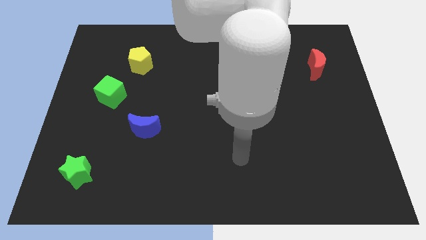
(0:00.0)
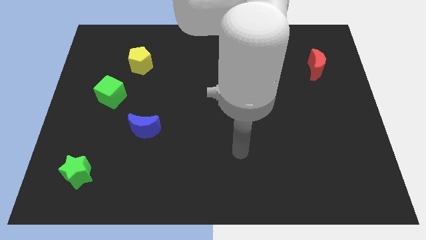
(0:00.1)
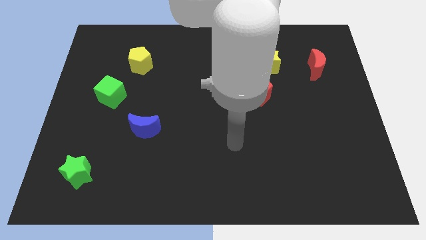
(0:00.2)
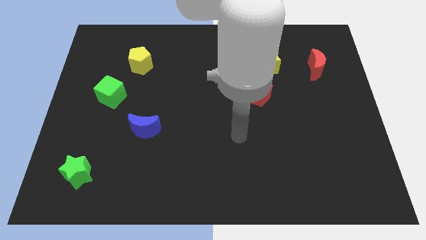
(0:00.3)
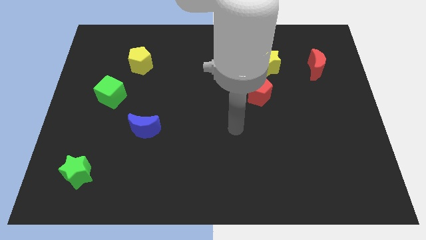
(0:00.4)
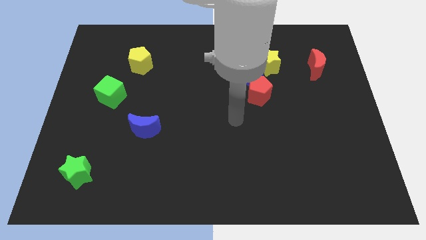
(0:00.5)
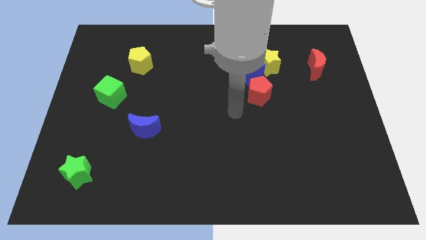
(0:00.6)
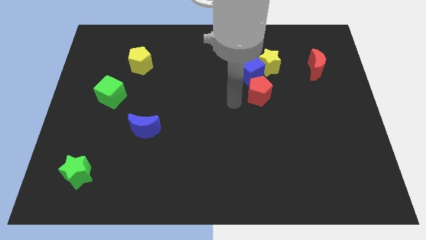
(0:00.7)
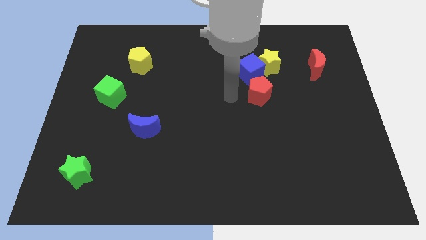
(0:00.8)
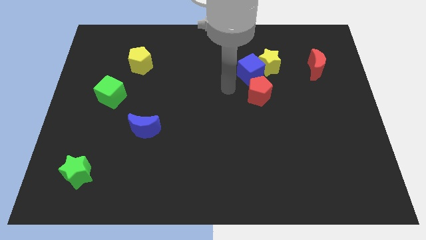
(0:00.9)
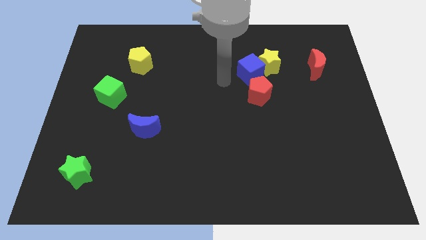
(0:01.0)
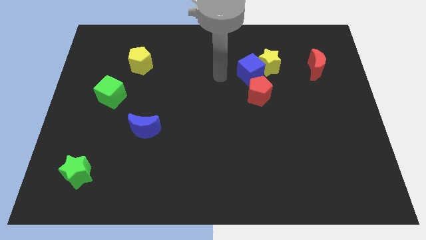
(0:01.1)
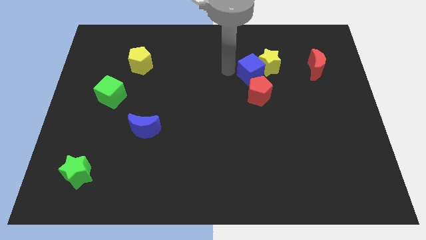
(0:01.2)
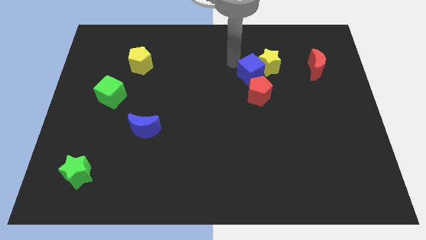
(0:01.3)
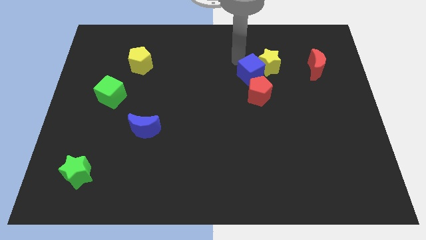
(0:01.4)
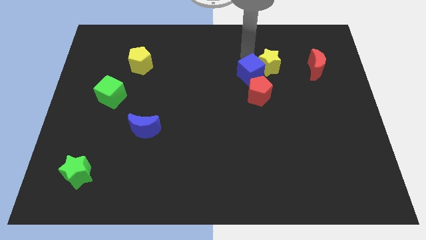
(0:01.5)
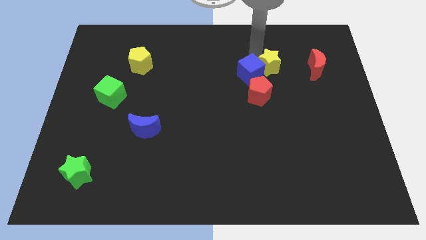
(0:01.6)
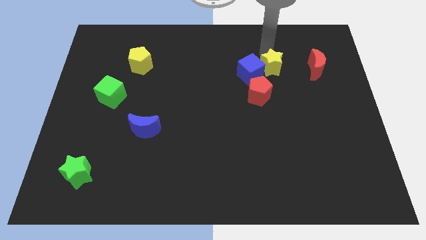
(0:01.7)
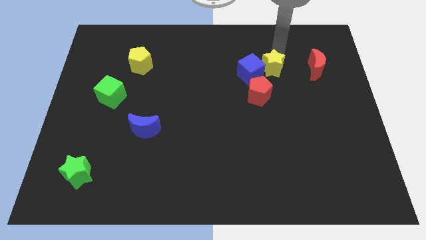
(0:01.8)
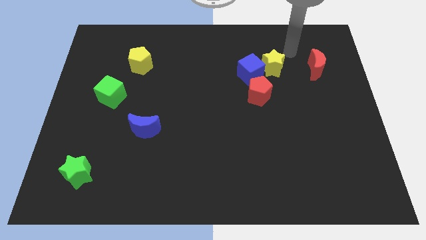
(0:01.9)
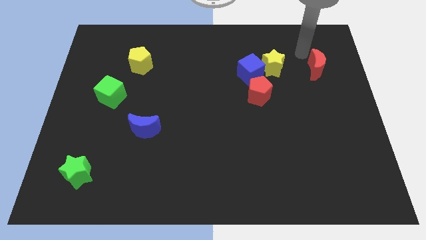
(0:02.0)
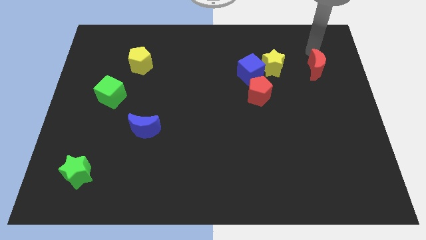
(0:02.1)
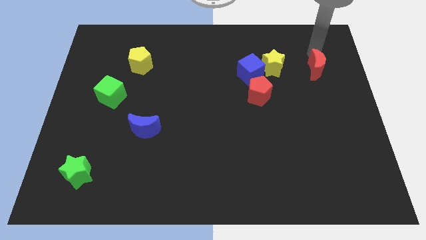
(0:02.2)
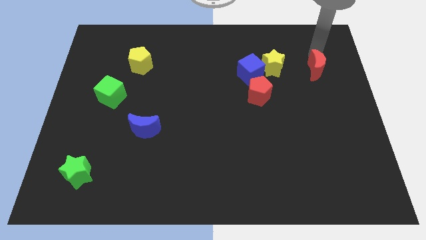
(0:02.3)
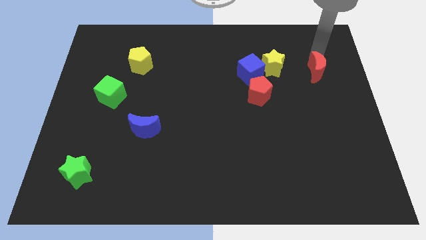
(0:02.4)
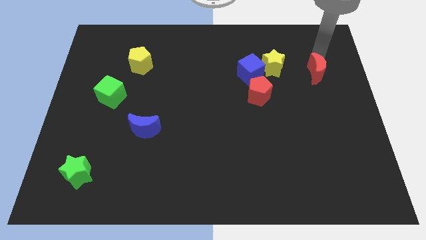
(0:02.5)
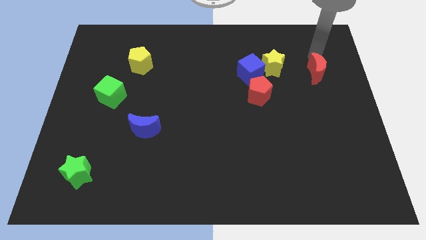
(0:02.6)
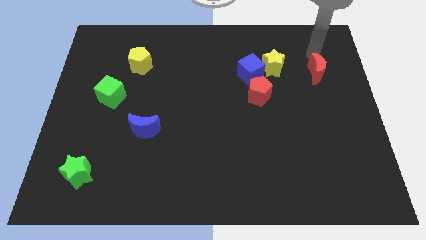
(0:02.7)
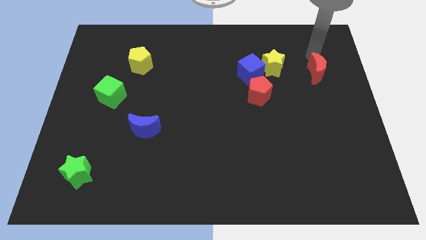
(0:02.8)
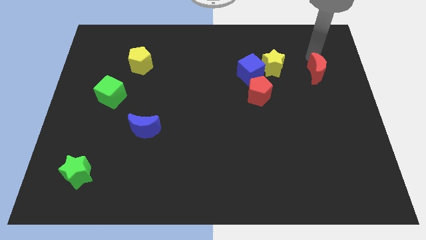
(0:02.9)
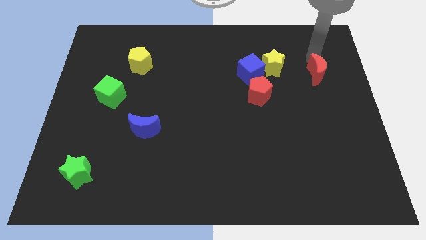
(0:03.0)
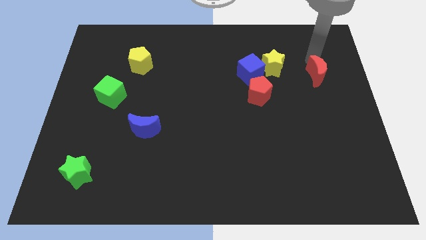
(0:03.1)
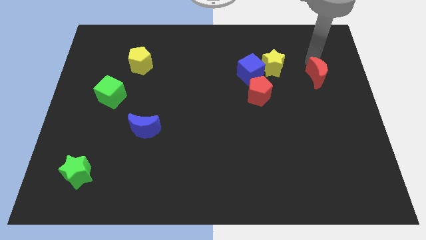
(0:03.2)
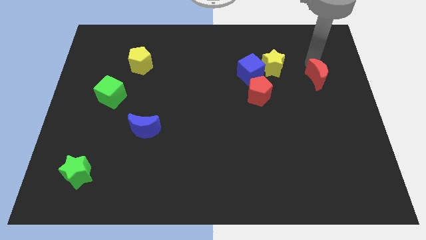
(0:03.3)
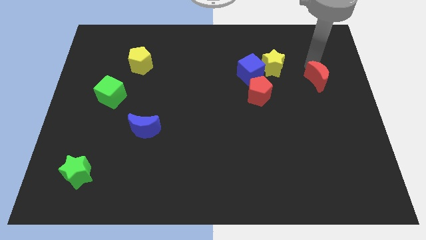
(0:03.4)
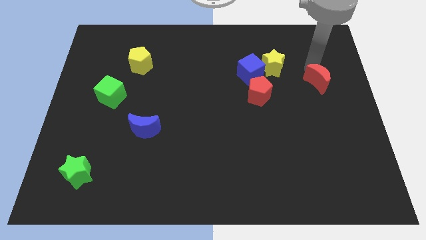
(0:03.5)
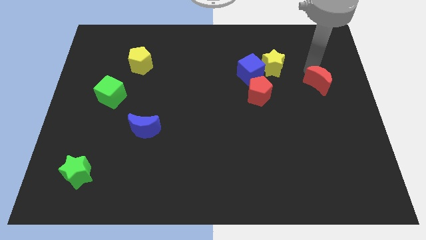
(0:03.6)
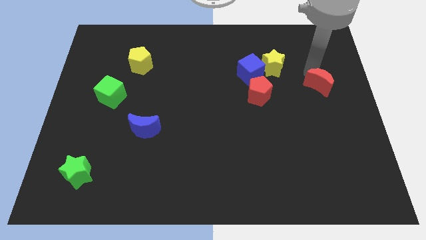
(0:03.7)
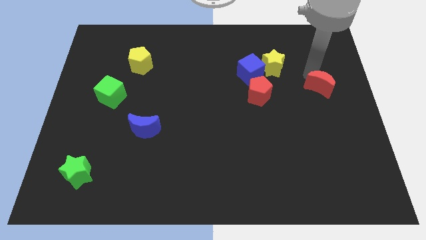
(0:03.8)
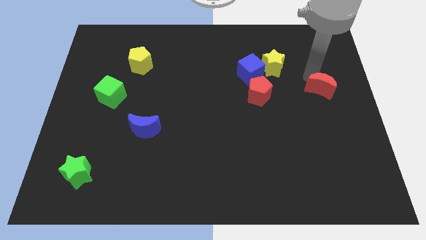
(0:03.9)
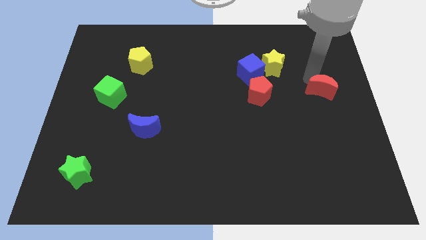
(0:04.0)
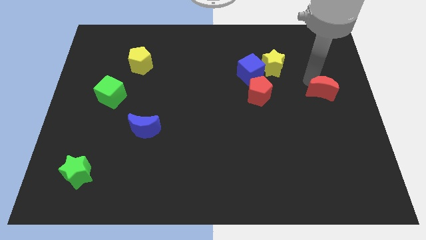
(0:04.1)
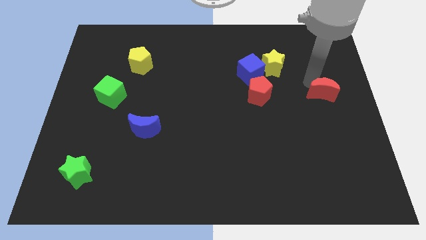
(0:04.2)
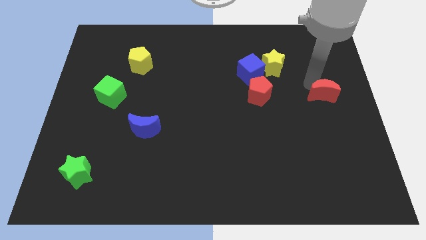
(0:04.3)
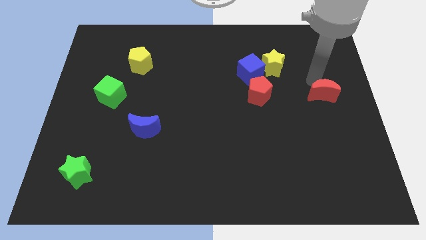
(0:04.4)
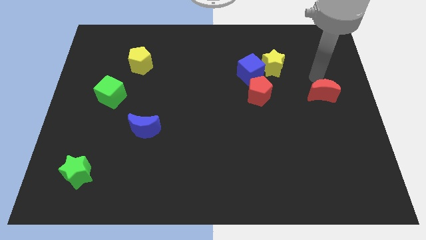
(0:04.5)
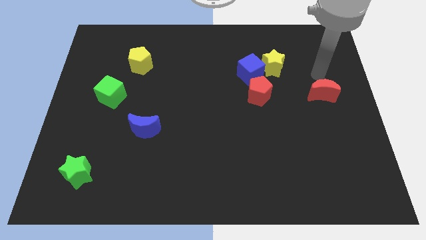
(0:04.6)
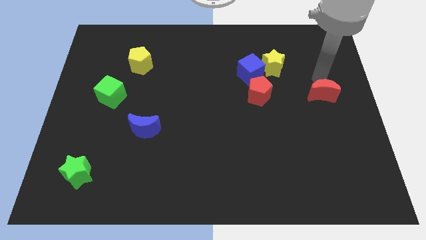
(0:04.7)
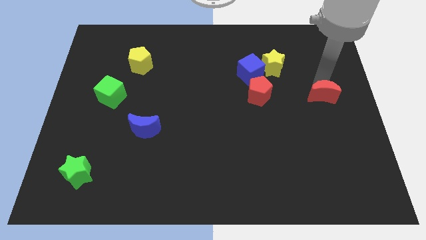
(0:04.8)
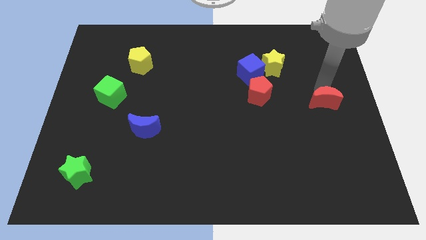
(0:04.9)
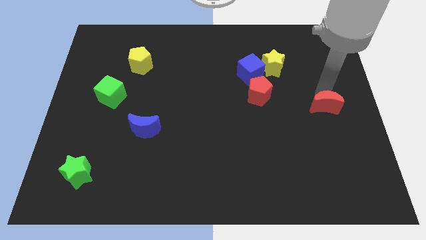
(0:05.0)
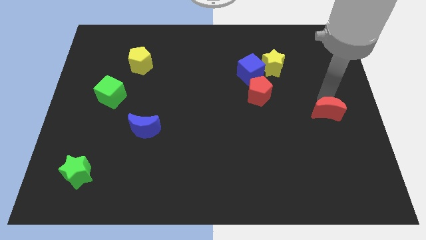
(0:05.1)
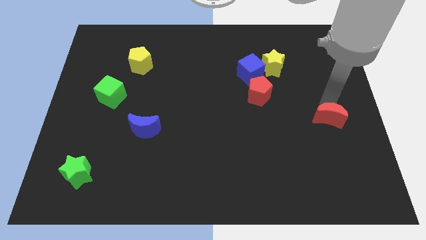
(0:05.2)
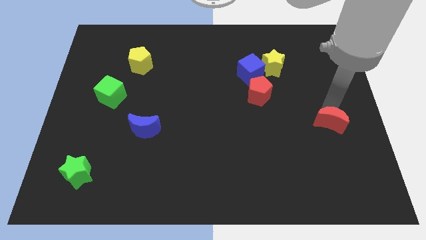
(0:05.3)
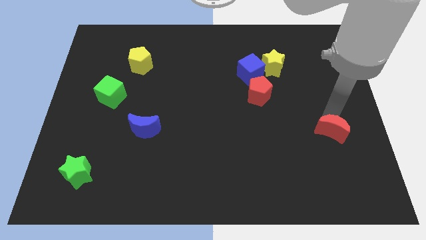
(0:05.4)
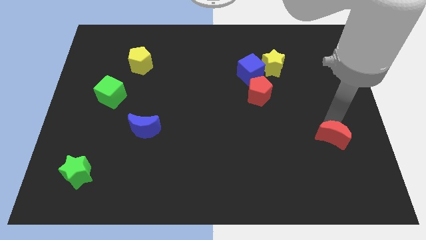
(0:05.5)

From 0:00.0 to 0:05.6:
move the red moon downwards

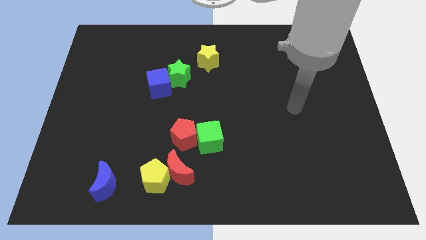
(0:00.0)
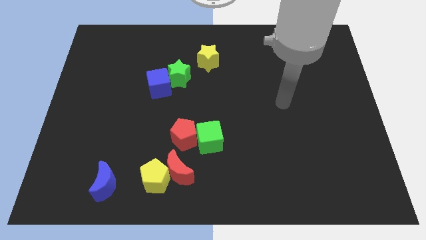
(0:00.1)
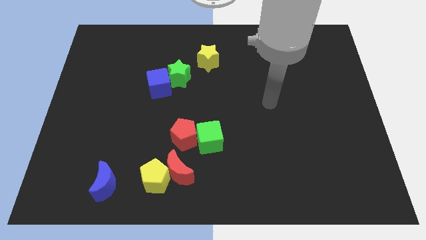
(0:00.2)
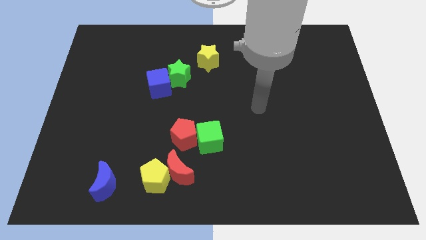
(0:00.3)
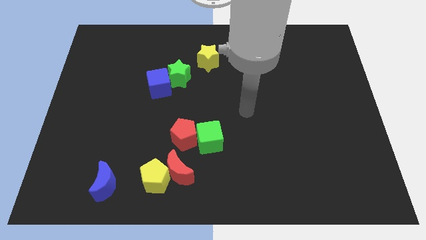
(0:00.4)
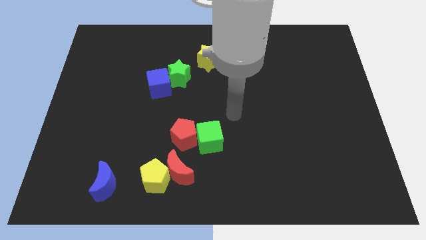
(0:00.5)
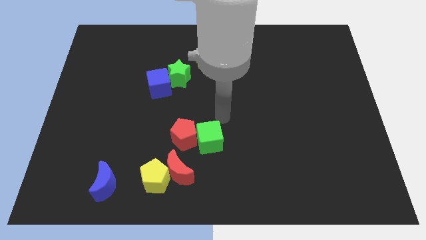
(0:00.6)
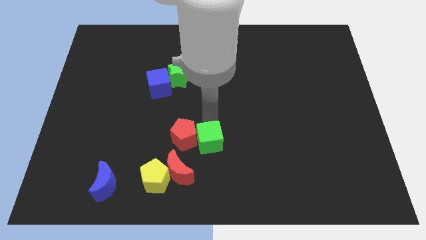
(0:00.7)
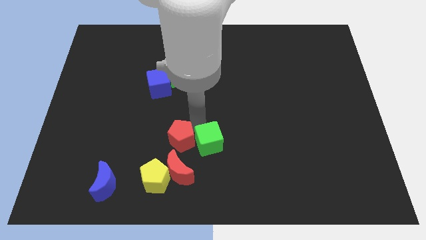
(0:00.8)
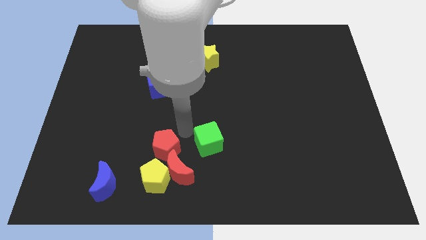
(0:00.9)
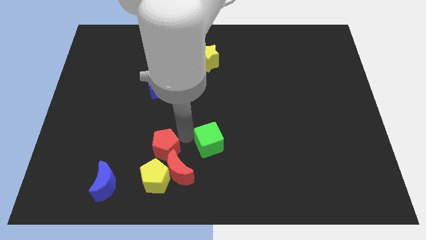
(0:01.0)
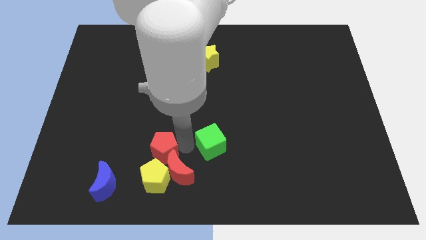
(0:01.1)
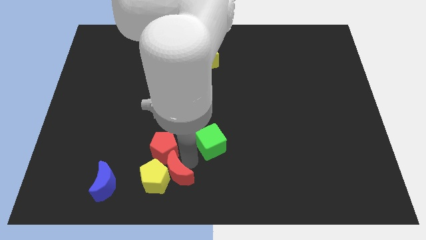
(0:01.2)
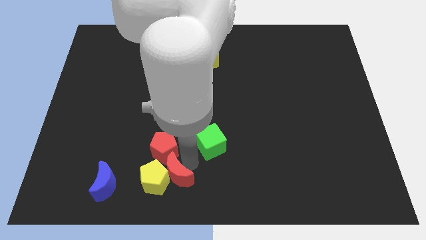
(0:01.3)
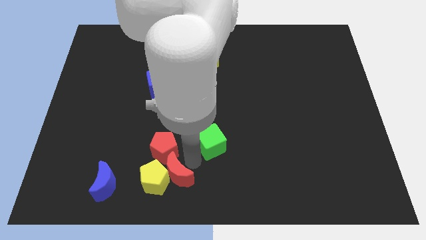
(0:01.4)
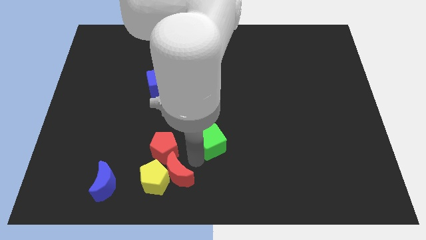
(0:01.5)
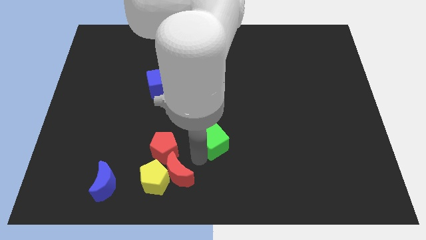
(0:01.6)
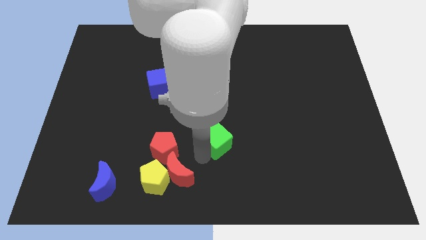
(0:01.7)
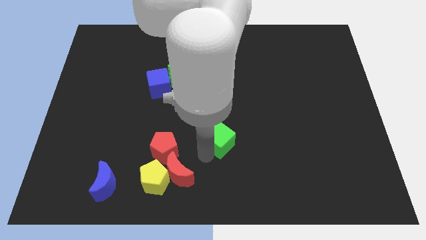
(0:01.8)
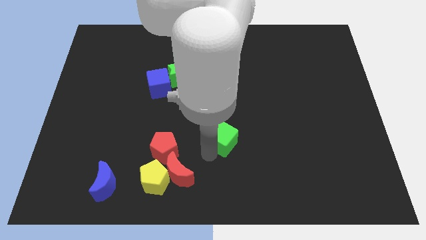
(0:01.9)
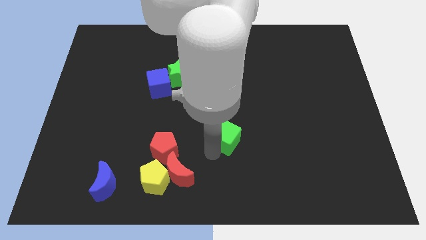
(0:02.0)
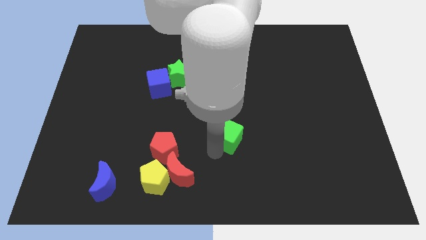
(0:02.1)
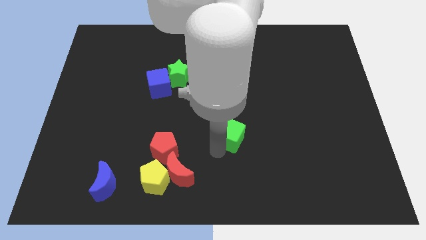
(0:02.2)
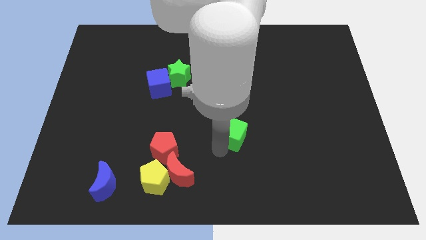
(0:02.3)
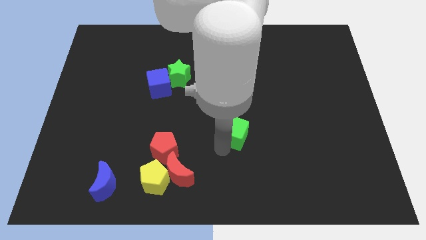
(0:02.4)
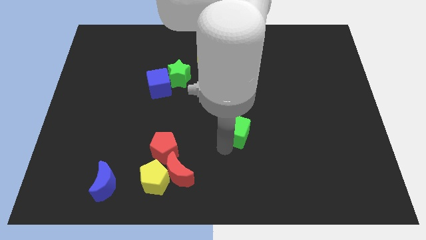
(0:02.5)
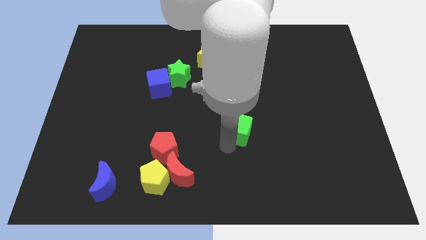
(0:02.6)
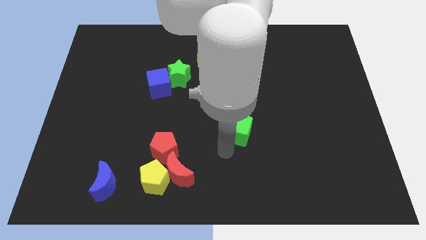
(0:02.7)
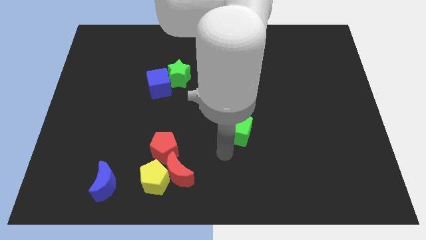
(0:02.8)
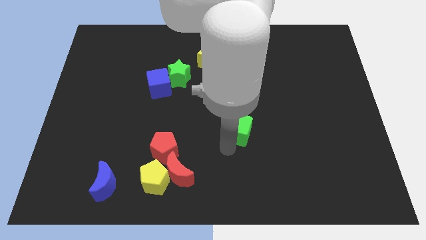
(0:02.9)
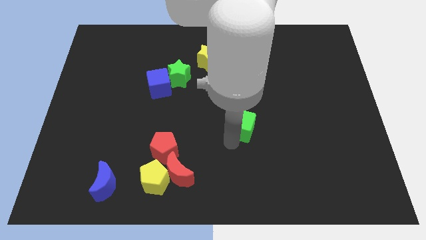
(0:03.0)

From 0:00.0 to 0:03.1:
slide the green cube a bit diagonally upwards and right
